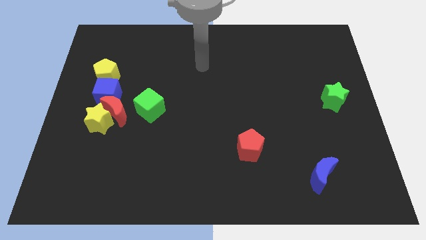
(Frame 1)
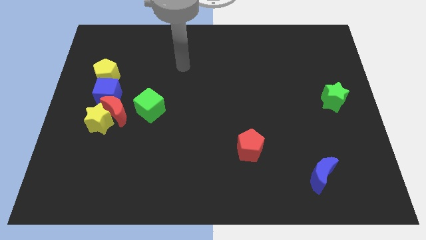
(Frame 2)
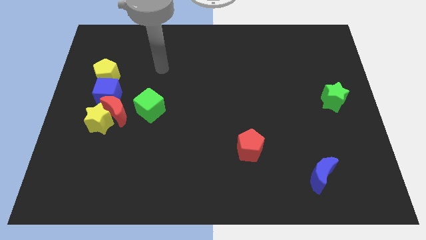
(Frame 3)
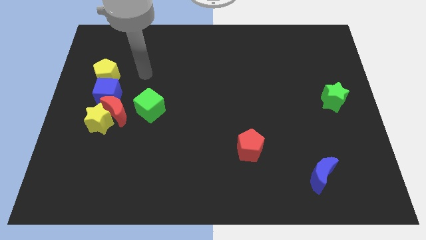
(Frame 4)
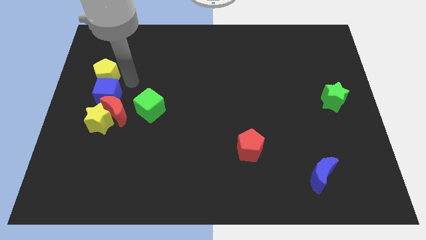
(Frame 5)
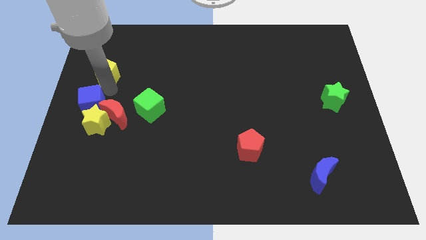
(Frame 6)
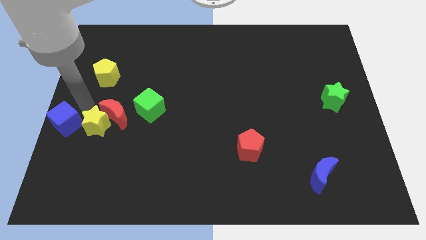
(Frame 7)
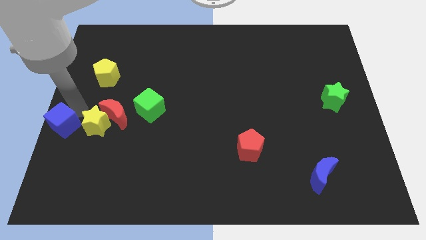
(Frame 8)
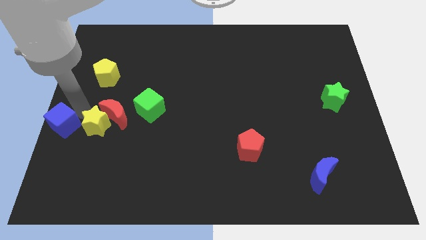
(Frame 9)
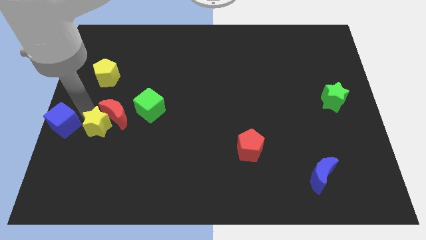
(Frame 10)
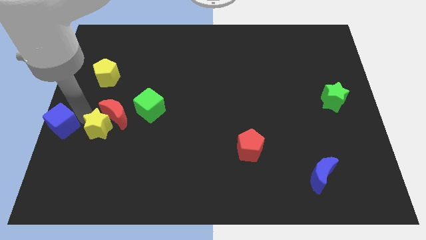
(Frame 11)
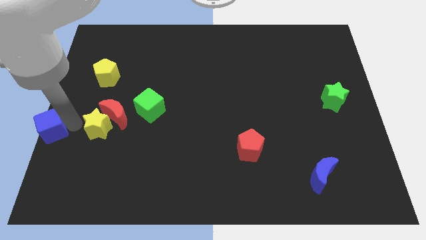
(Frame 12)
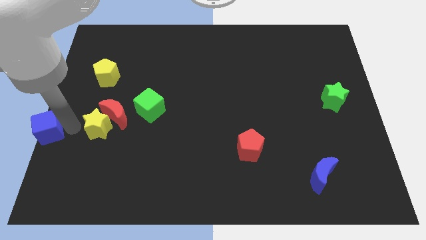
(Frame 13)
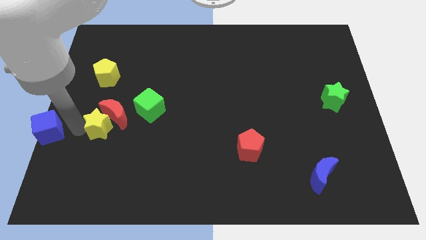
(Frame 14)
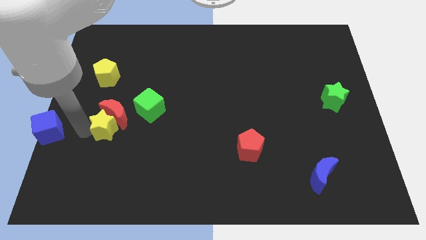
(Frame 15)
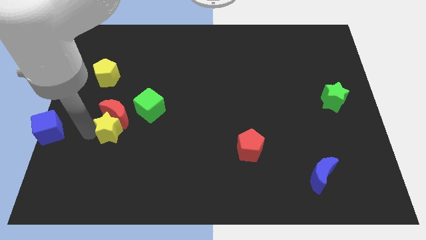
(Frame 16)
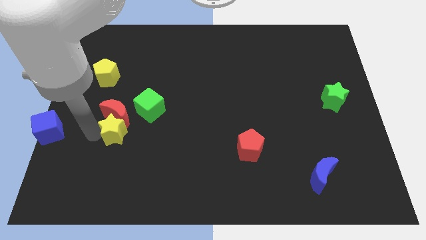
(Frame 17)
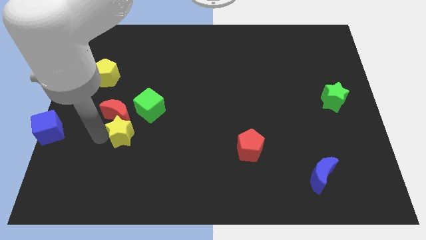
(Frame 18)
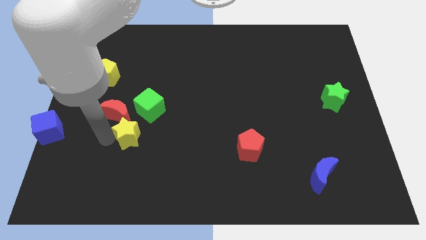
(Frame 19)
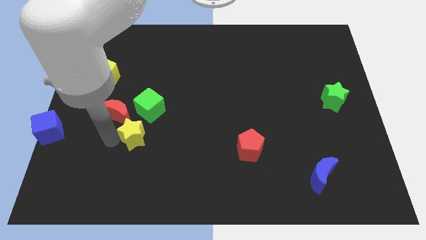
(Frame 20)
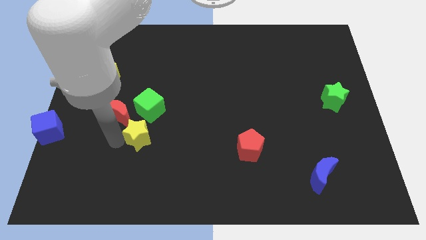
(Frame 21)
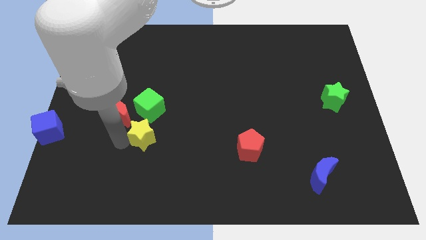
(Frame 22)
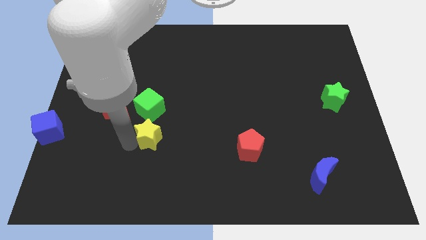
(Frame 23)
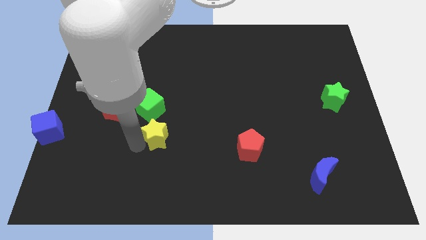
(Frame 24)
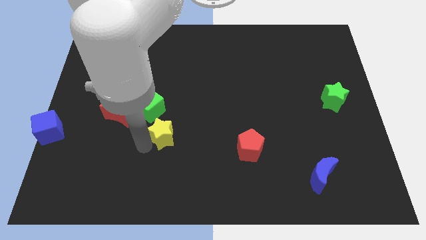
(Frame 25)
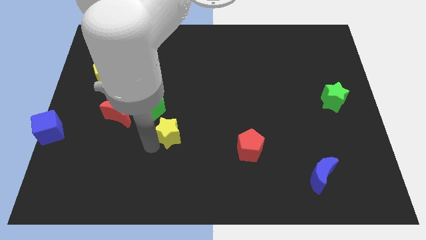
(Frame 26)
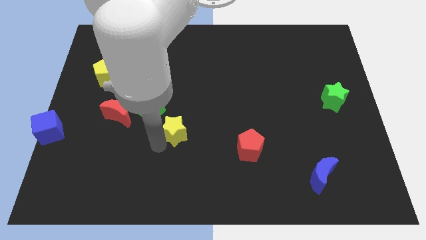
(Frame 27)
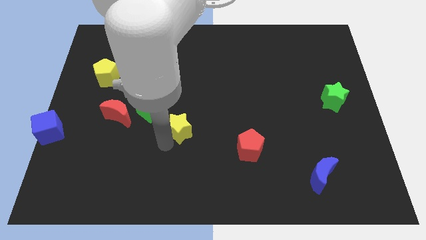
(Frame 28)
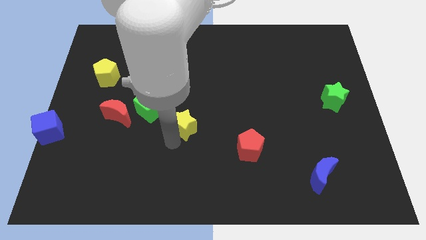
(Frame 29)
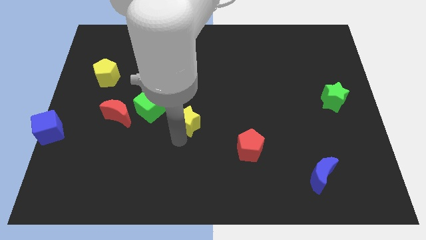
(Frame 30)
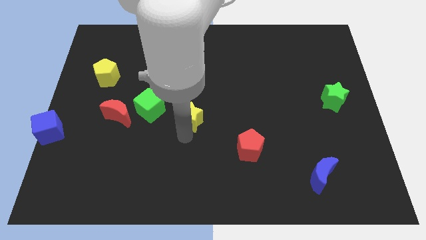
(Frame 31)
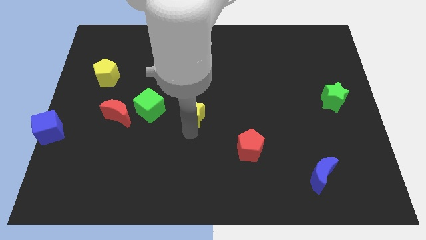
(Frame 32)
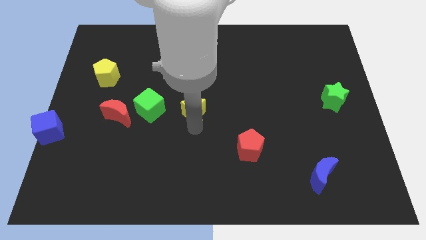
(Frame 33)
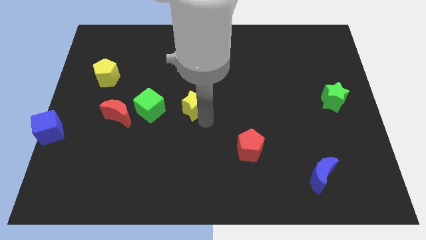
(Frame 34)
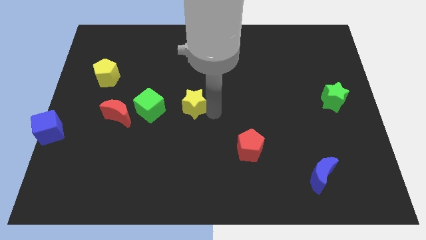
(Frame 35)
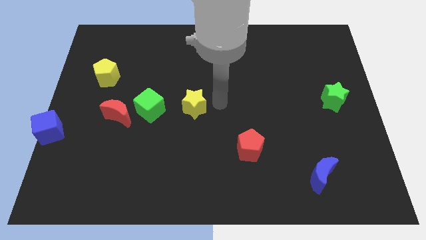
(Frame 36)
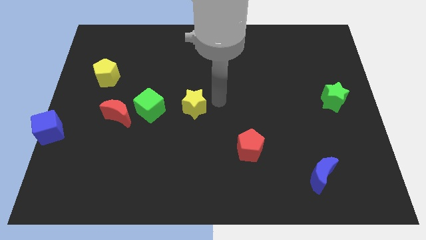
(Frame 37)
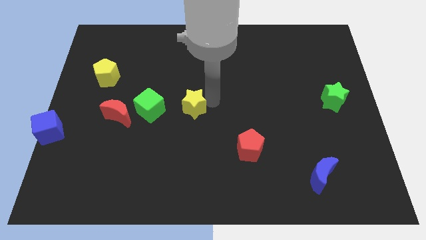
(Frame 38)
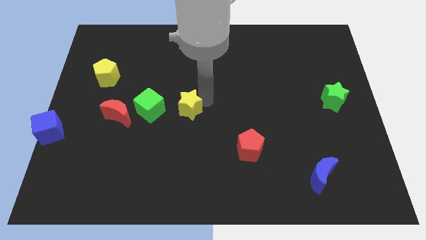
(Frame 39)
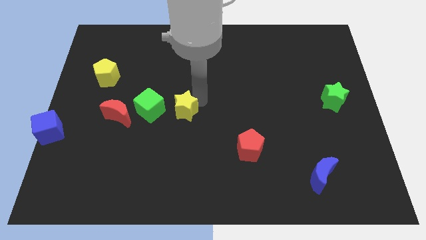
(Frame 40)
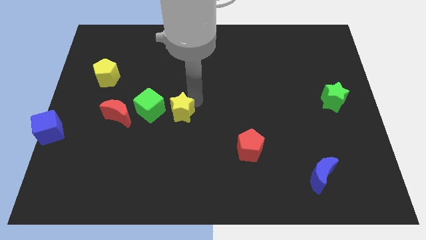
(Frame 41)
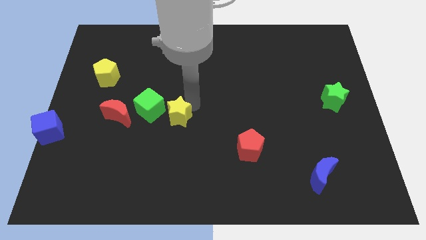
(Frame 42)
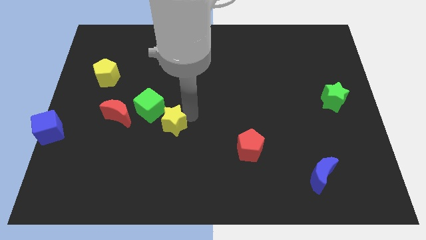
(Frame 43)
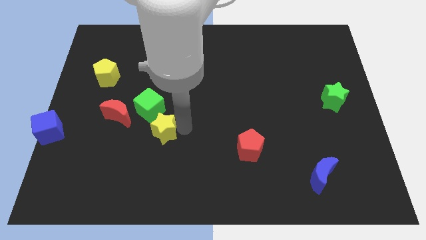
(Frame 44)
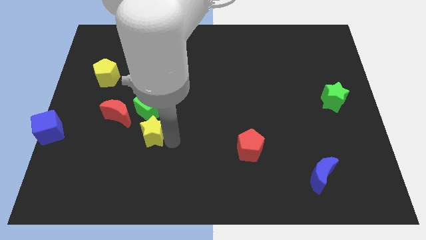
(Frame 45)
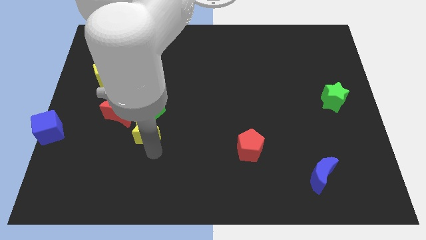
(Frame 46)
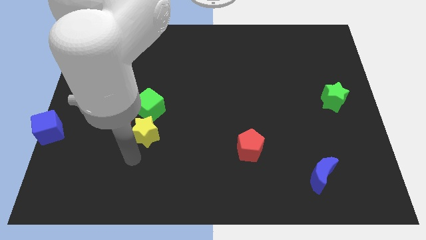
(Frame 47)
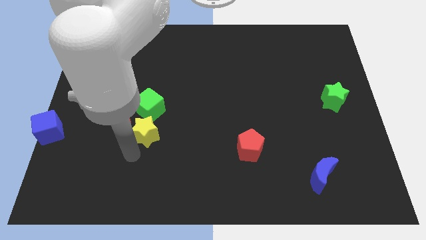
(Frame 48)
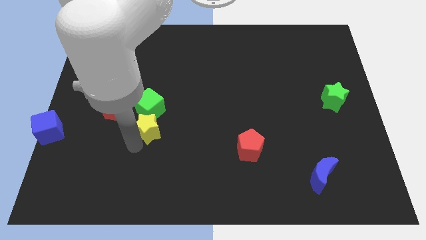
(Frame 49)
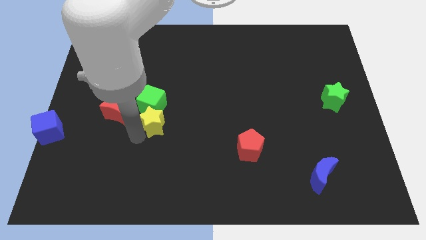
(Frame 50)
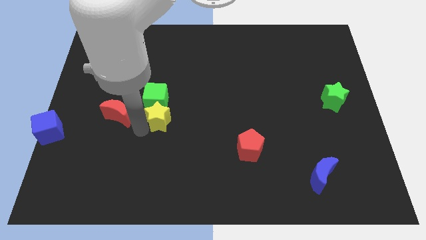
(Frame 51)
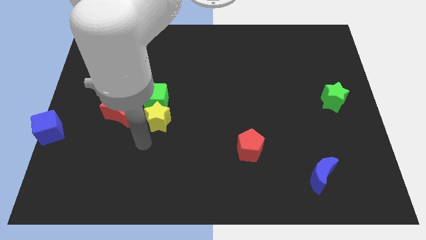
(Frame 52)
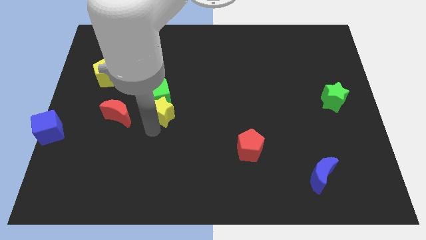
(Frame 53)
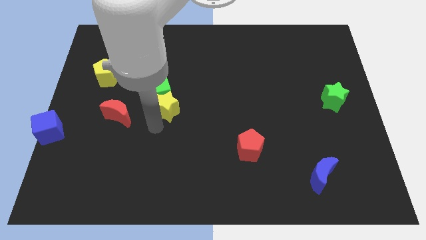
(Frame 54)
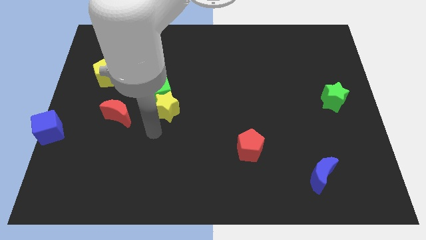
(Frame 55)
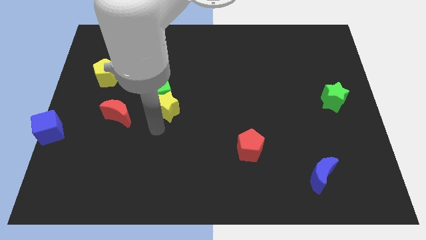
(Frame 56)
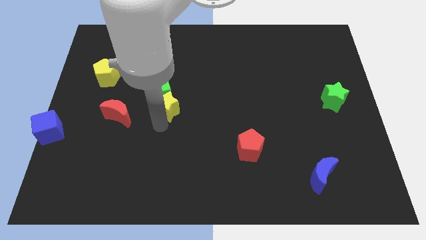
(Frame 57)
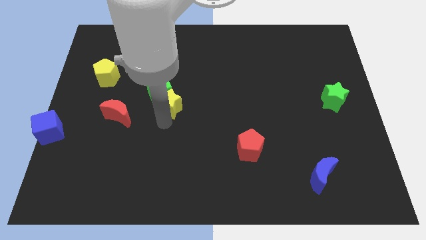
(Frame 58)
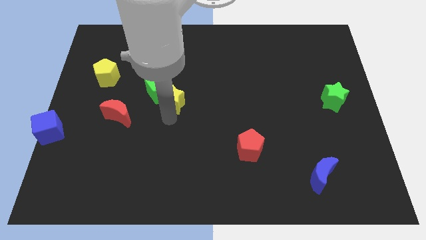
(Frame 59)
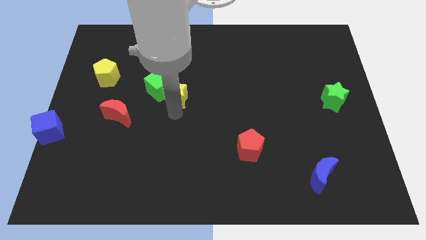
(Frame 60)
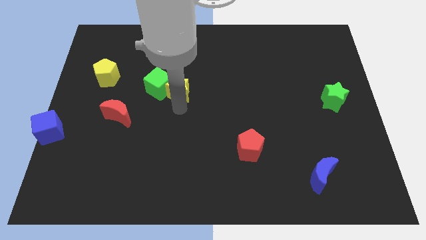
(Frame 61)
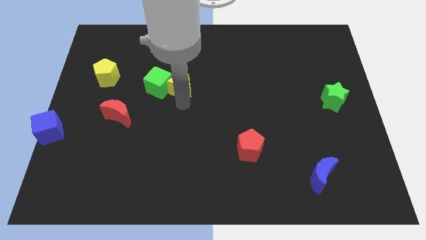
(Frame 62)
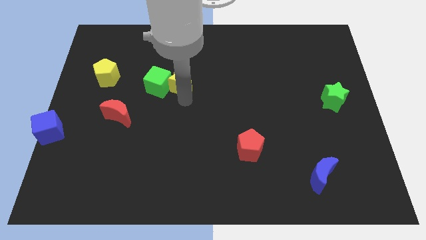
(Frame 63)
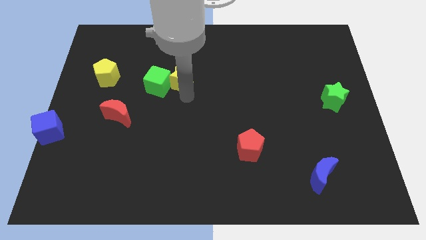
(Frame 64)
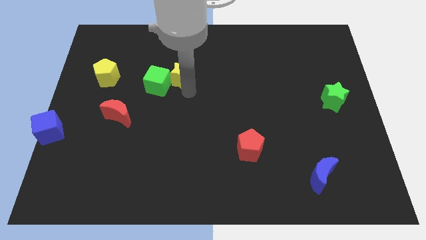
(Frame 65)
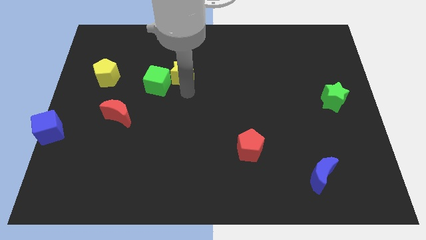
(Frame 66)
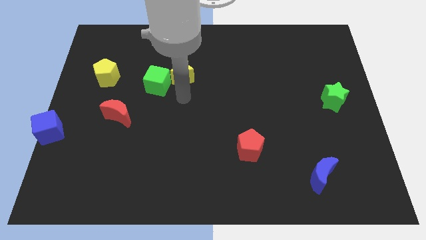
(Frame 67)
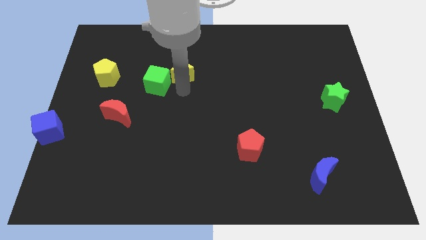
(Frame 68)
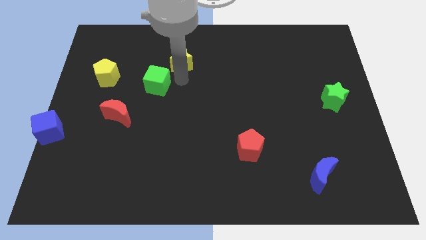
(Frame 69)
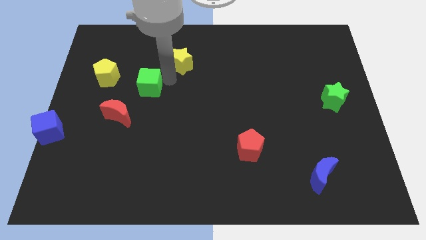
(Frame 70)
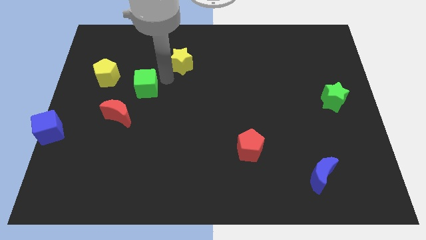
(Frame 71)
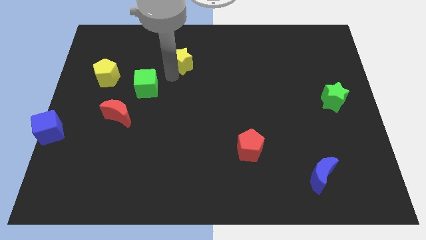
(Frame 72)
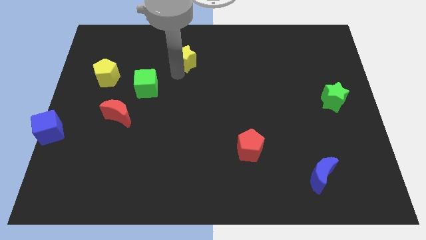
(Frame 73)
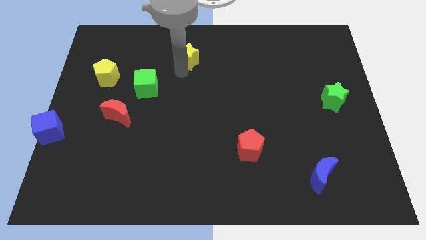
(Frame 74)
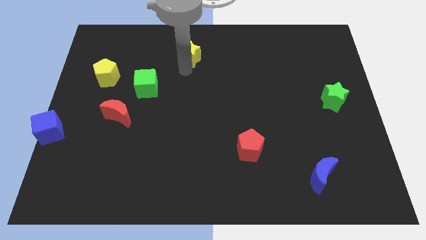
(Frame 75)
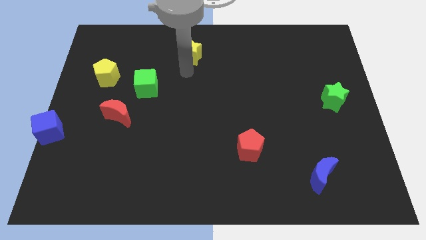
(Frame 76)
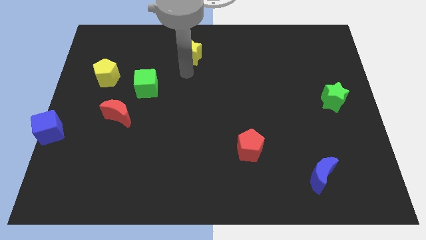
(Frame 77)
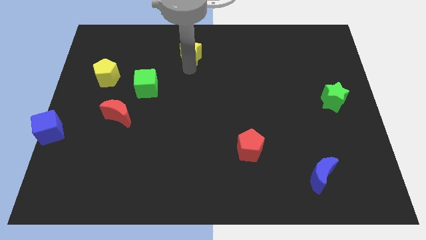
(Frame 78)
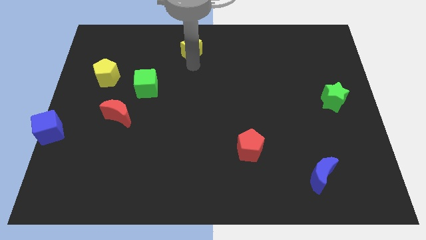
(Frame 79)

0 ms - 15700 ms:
slide the yellow star to the top
